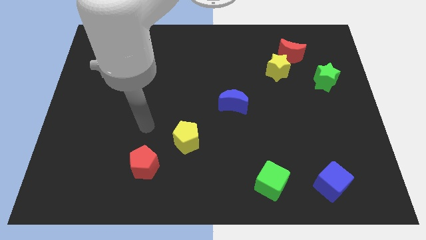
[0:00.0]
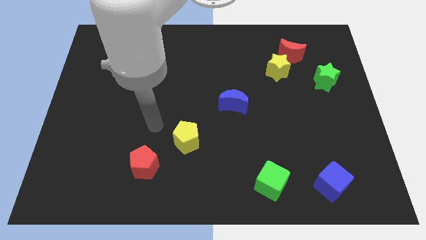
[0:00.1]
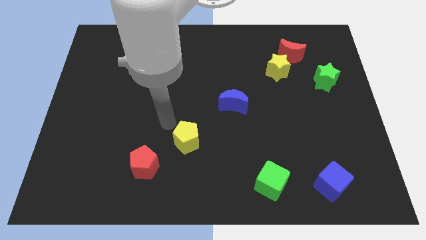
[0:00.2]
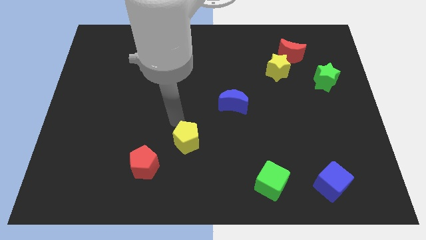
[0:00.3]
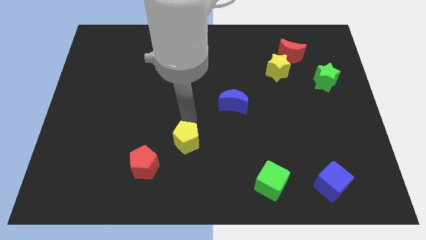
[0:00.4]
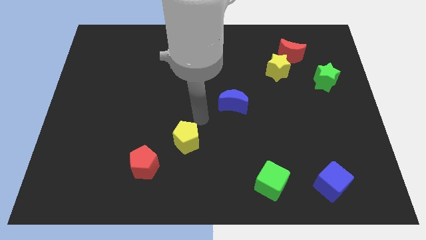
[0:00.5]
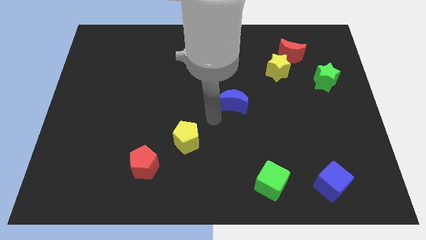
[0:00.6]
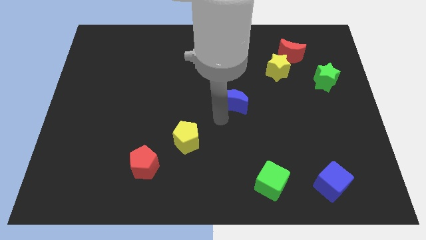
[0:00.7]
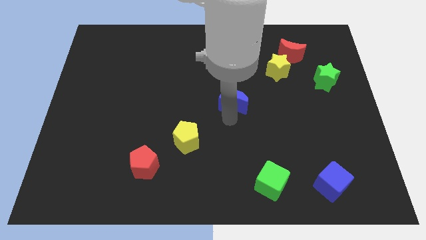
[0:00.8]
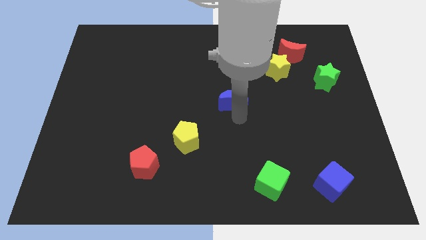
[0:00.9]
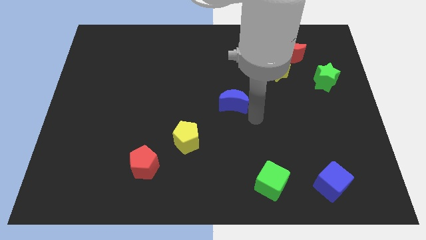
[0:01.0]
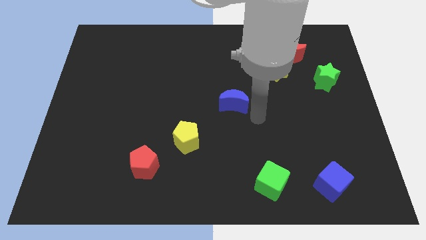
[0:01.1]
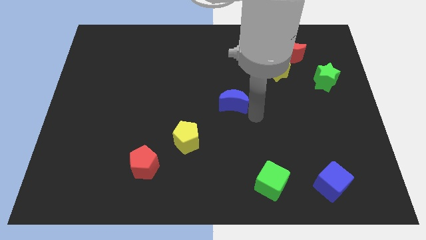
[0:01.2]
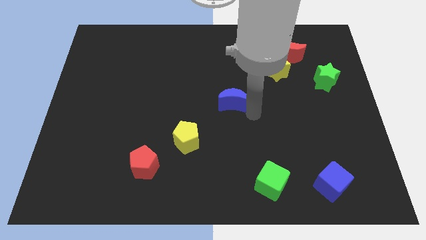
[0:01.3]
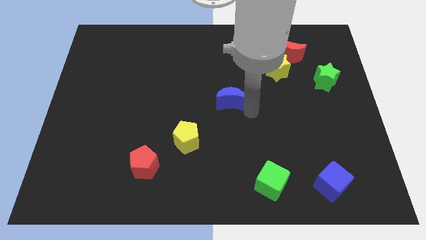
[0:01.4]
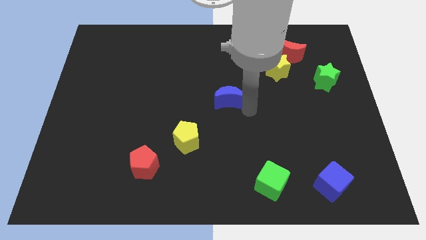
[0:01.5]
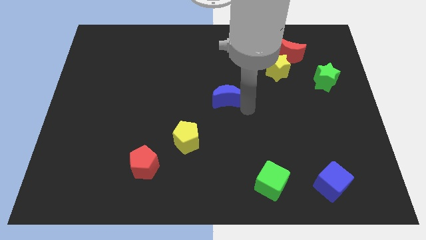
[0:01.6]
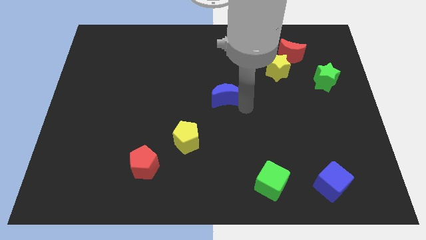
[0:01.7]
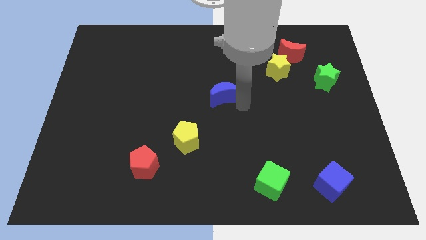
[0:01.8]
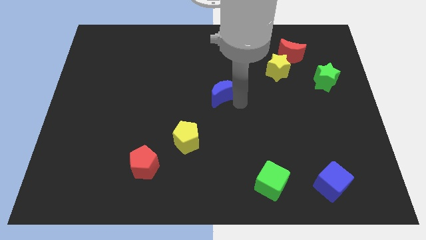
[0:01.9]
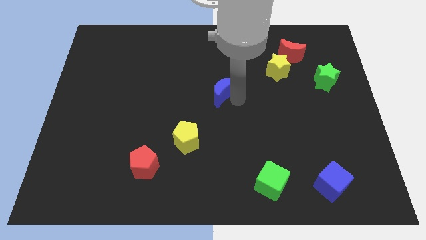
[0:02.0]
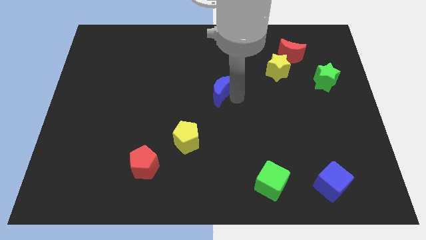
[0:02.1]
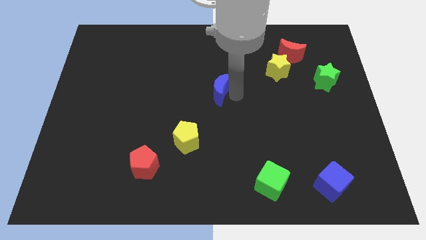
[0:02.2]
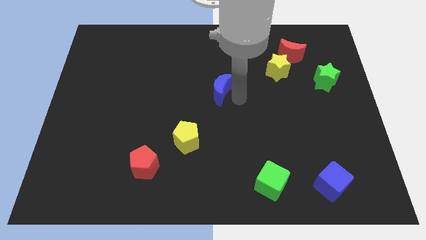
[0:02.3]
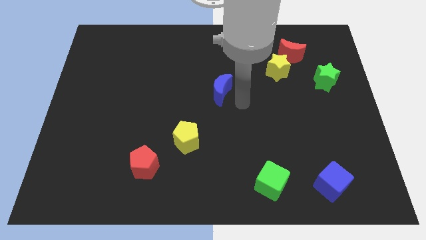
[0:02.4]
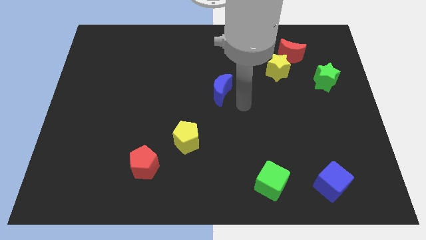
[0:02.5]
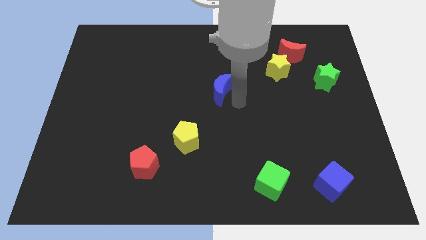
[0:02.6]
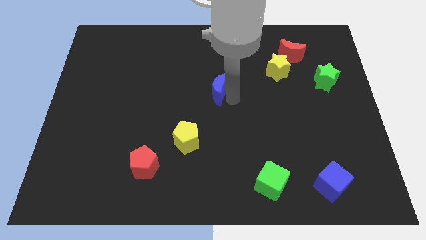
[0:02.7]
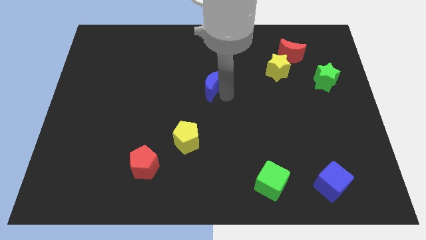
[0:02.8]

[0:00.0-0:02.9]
move the blue moon slightly diagonally up and left

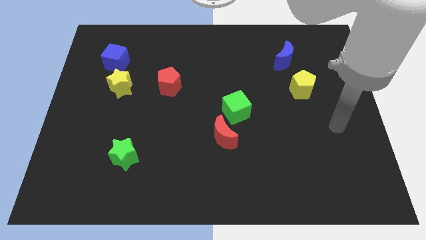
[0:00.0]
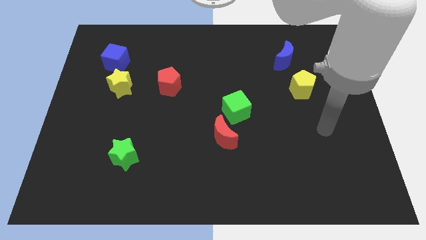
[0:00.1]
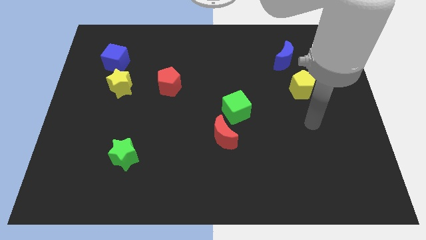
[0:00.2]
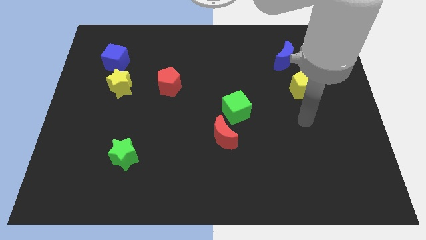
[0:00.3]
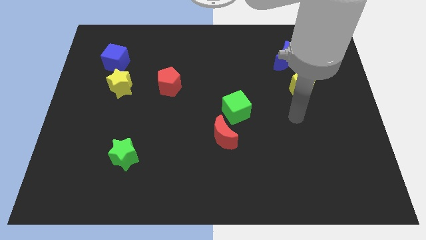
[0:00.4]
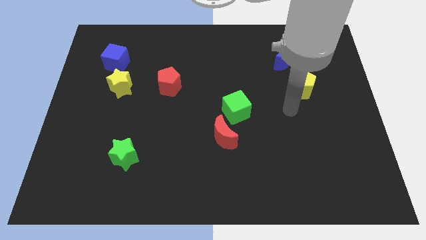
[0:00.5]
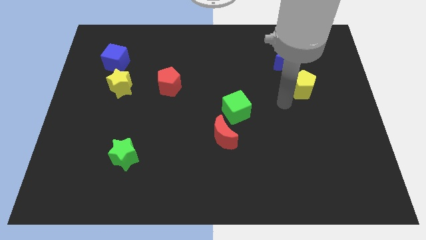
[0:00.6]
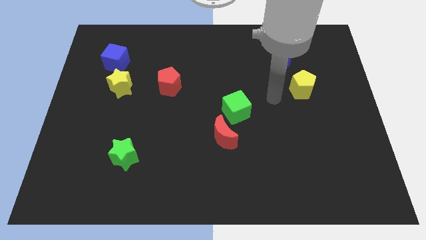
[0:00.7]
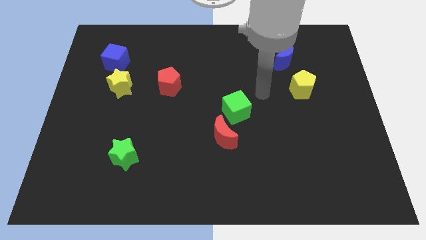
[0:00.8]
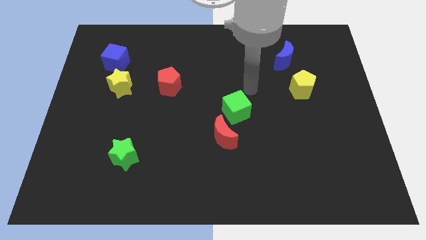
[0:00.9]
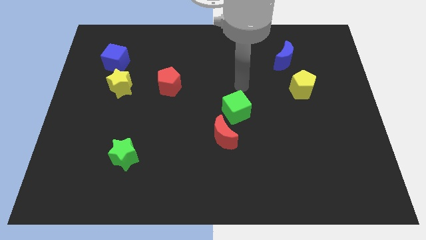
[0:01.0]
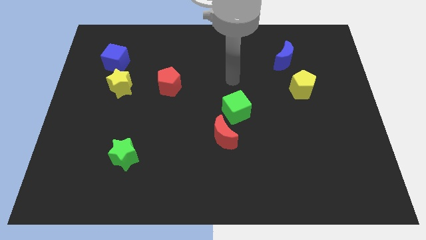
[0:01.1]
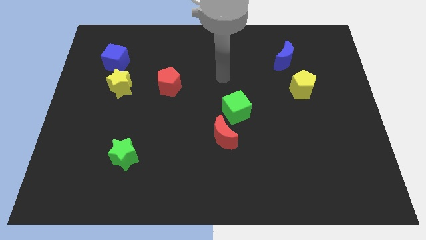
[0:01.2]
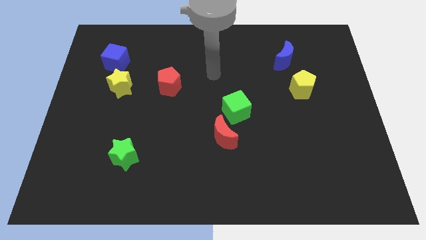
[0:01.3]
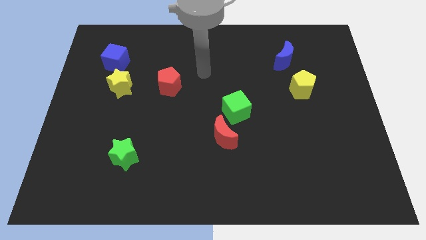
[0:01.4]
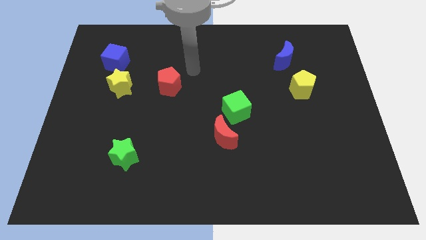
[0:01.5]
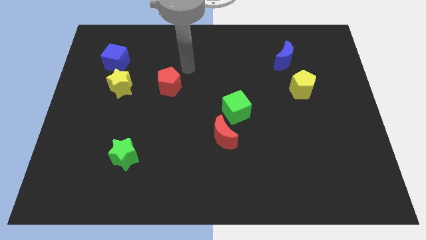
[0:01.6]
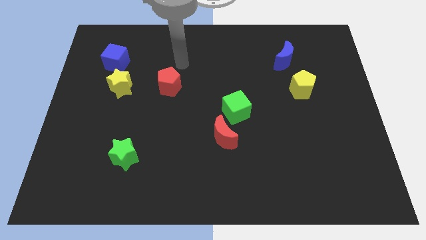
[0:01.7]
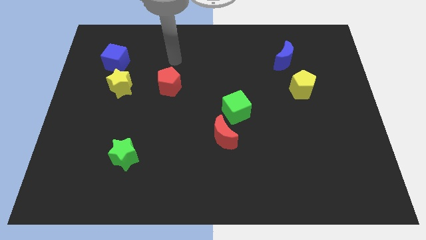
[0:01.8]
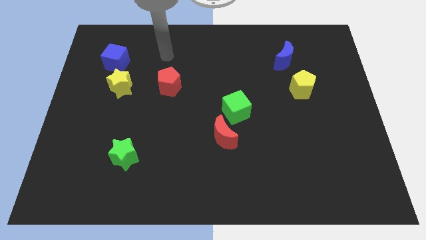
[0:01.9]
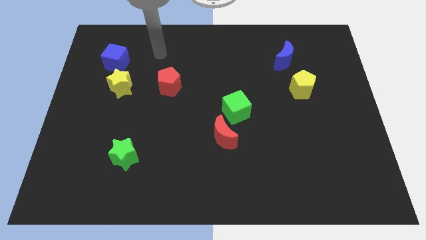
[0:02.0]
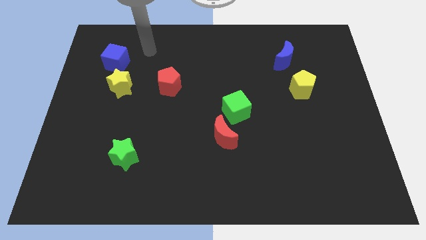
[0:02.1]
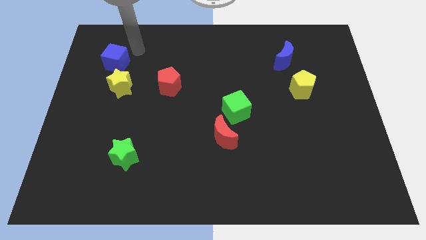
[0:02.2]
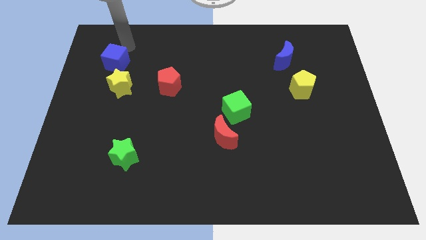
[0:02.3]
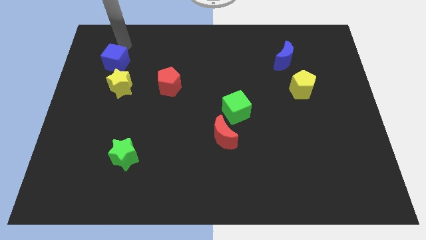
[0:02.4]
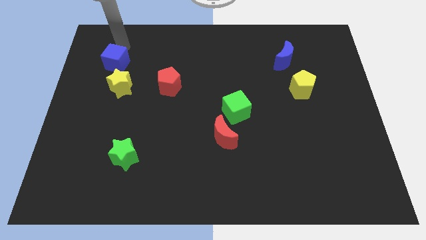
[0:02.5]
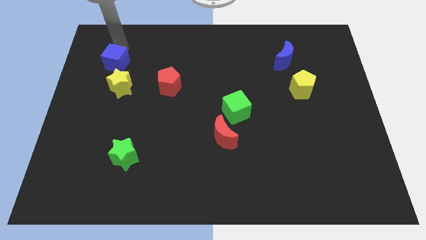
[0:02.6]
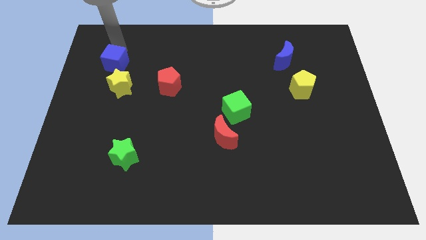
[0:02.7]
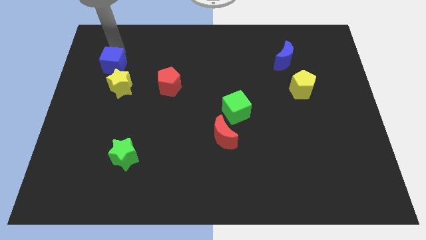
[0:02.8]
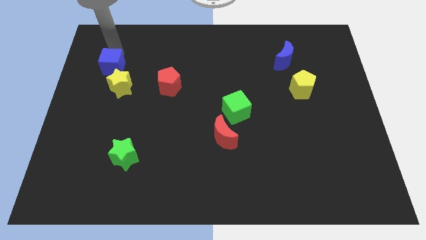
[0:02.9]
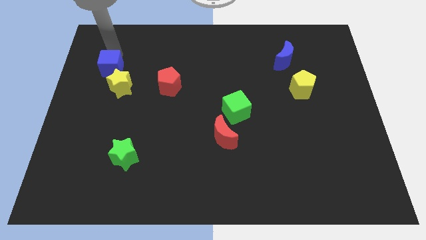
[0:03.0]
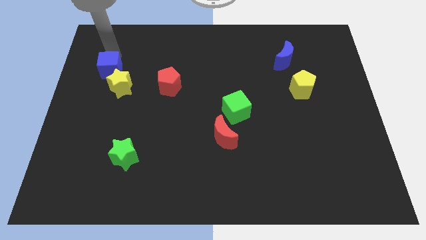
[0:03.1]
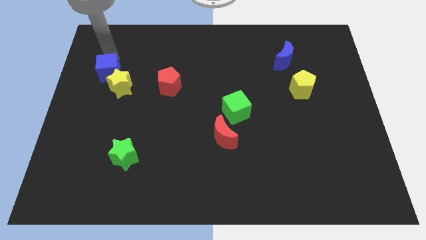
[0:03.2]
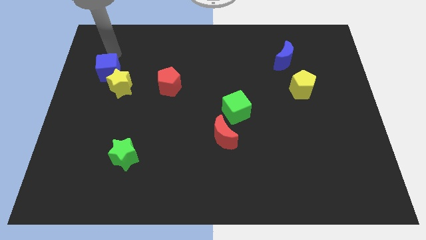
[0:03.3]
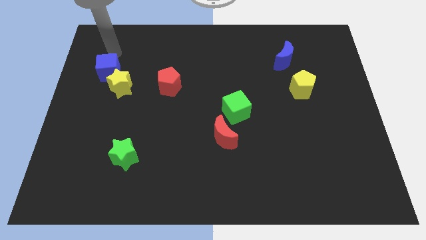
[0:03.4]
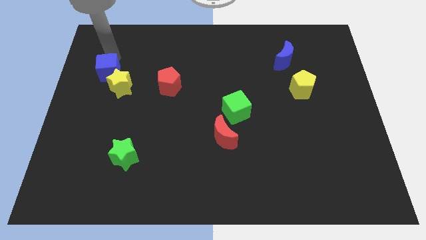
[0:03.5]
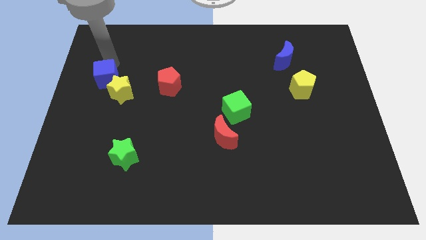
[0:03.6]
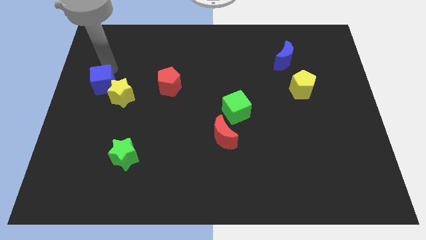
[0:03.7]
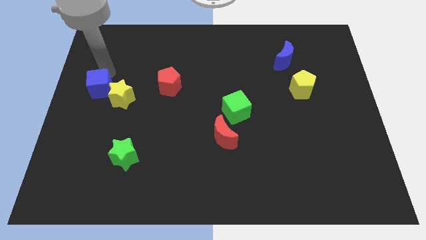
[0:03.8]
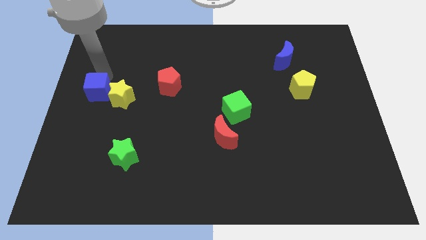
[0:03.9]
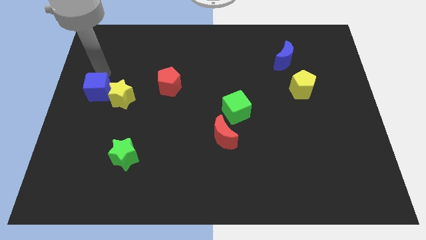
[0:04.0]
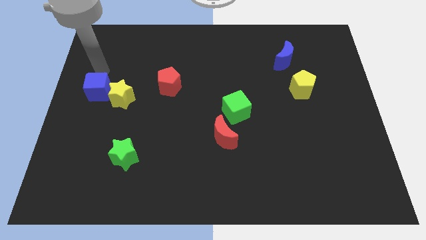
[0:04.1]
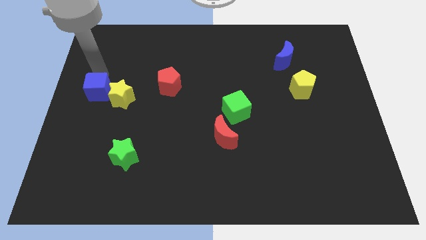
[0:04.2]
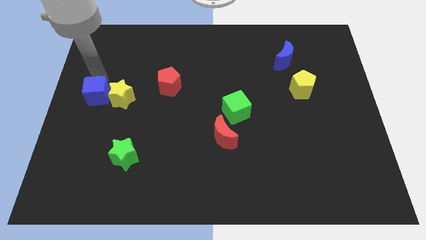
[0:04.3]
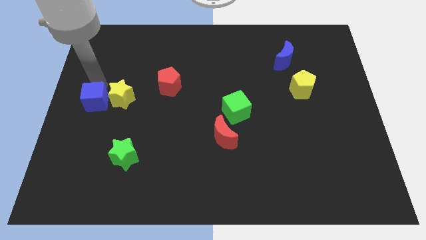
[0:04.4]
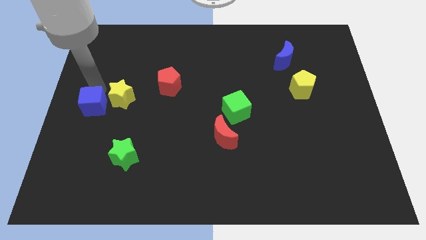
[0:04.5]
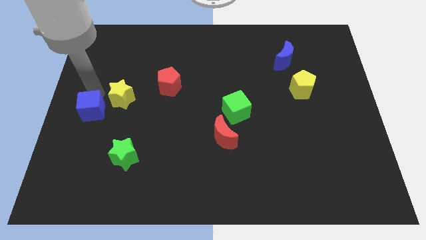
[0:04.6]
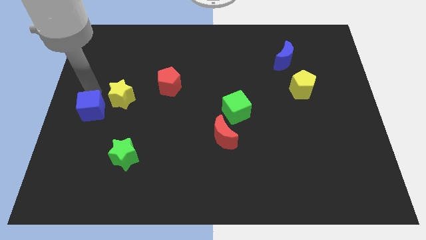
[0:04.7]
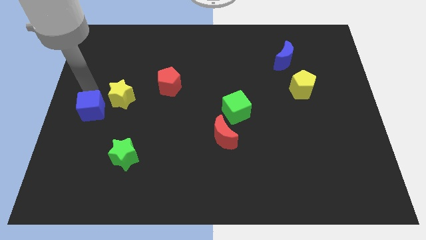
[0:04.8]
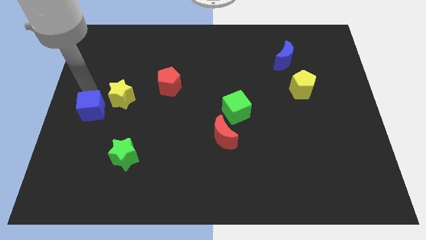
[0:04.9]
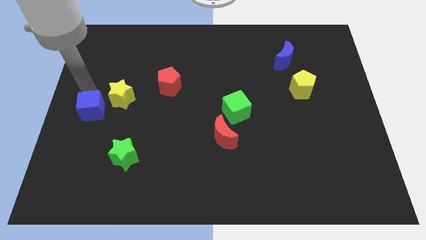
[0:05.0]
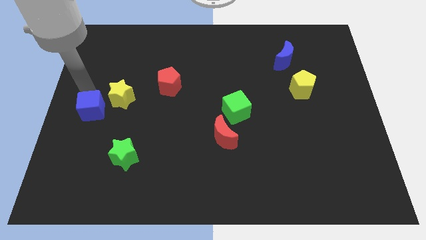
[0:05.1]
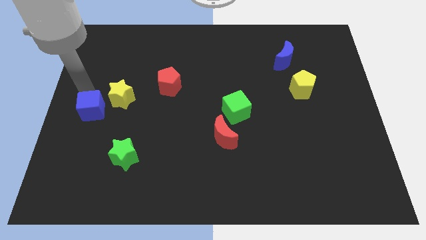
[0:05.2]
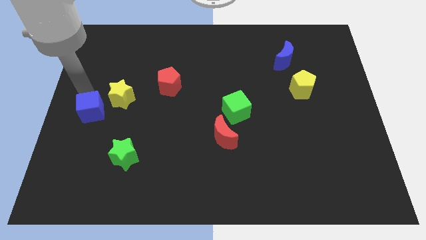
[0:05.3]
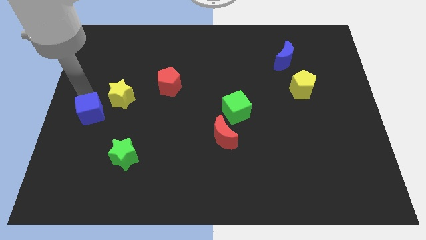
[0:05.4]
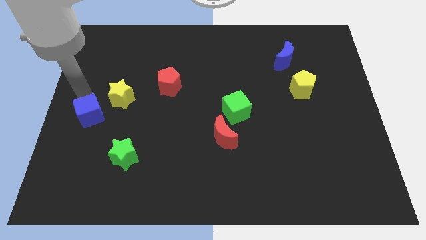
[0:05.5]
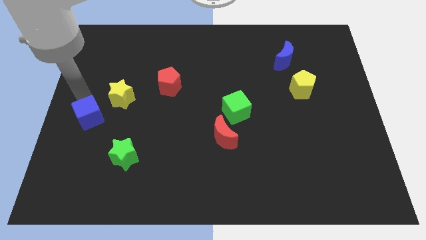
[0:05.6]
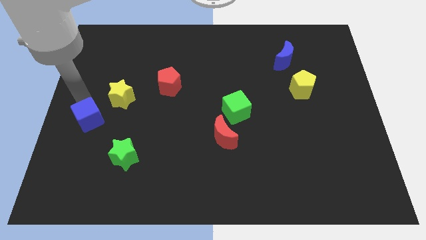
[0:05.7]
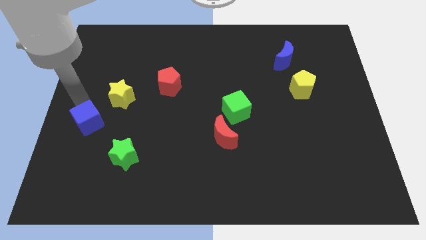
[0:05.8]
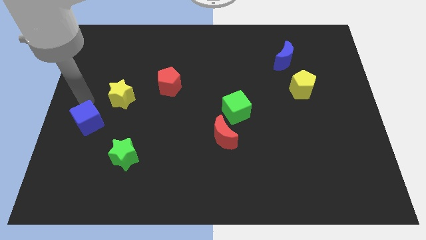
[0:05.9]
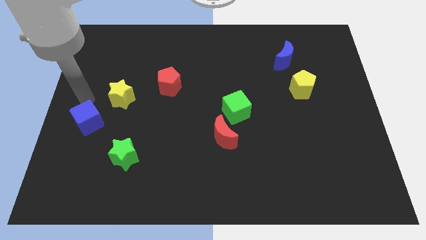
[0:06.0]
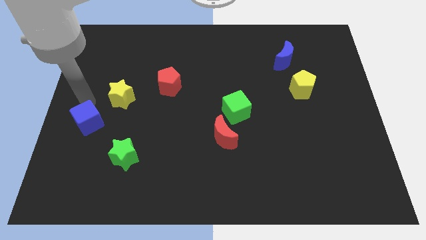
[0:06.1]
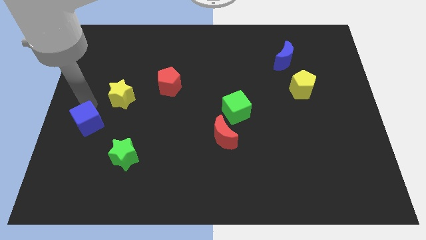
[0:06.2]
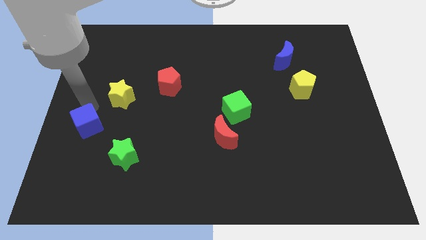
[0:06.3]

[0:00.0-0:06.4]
move the blue cube down
